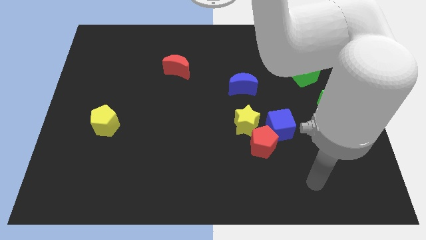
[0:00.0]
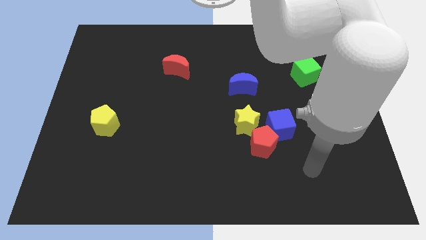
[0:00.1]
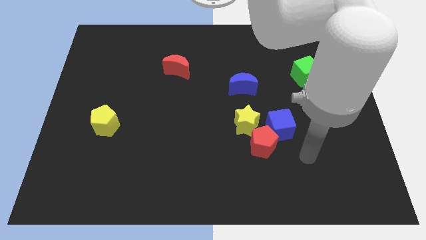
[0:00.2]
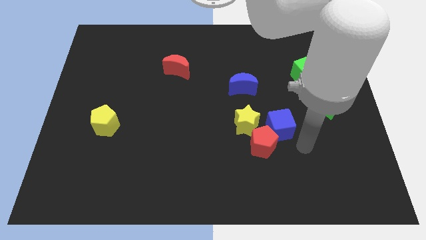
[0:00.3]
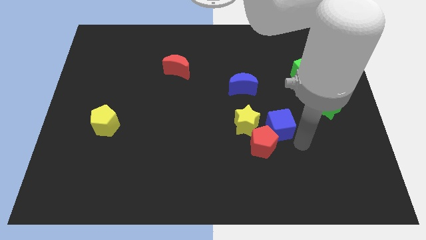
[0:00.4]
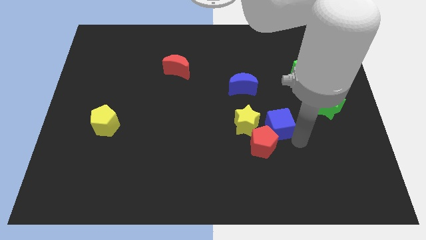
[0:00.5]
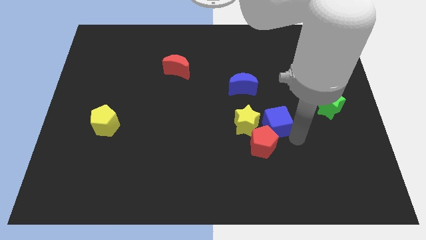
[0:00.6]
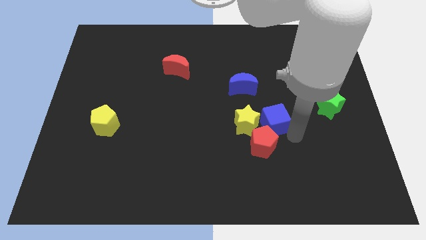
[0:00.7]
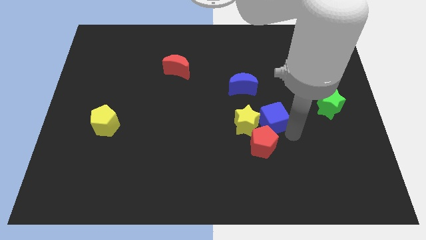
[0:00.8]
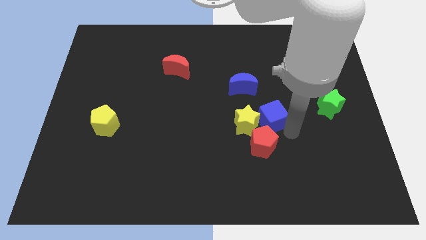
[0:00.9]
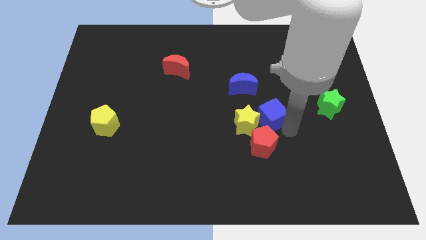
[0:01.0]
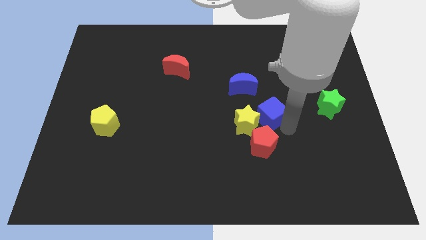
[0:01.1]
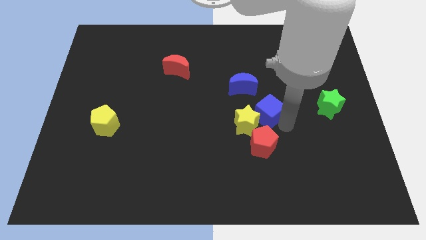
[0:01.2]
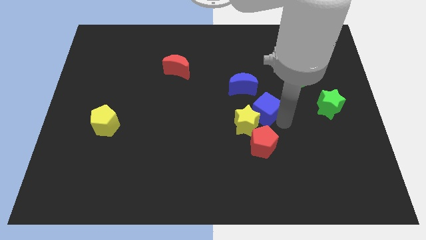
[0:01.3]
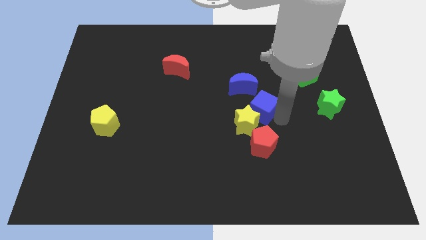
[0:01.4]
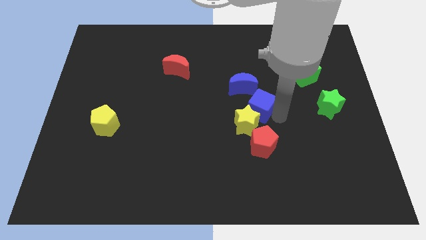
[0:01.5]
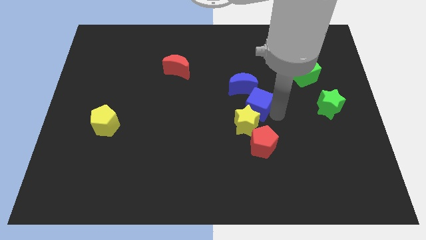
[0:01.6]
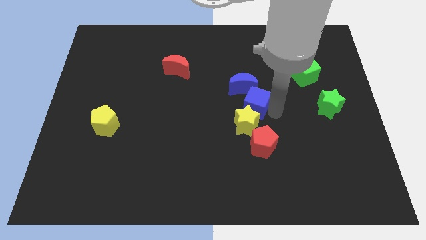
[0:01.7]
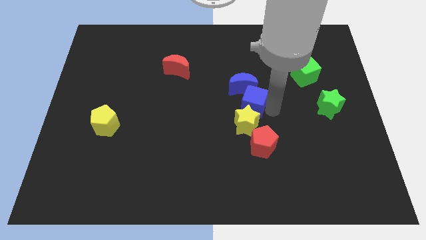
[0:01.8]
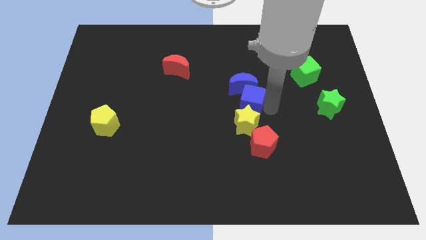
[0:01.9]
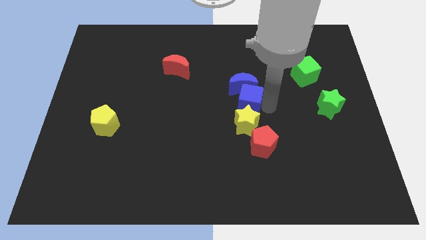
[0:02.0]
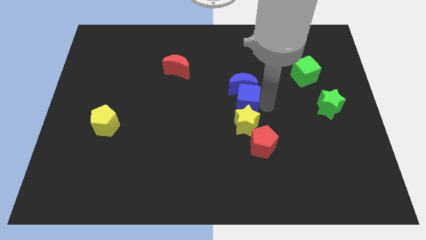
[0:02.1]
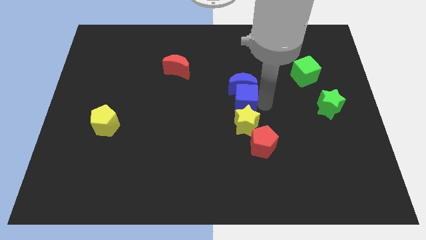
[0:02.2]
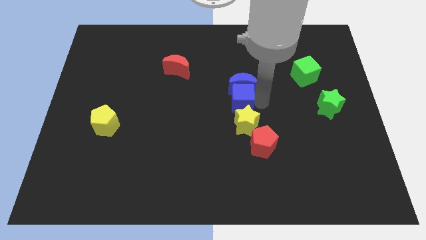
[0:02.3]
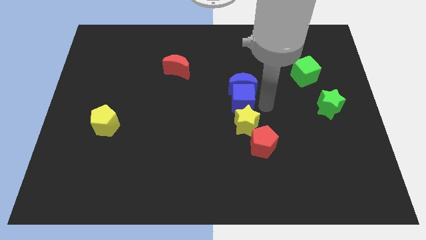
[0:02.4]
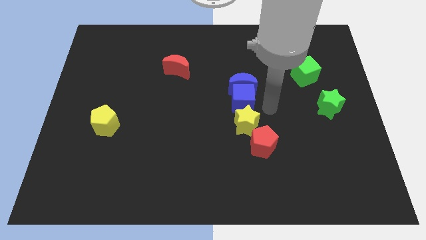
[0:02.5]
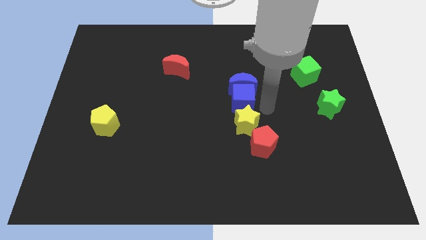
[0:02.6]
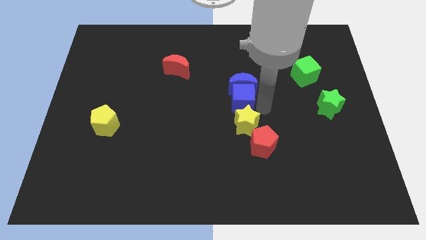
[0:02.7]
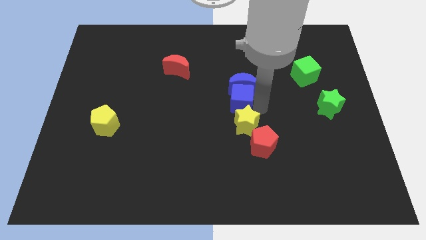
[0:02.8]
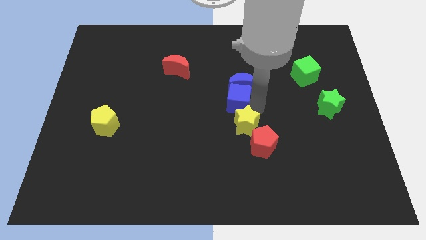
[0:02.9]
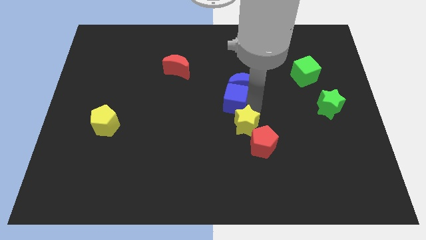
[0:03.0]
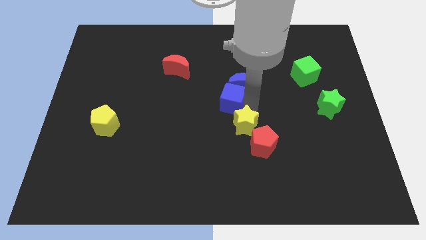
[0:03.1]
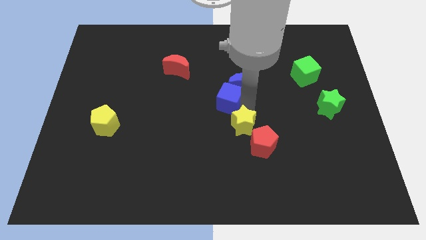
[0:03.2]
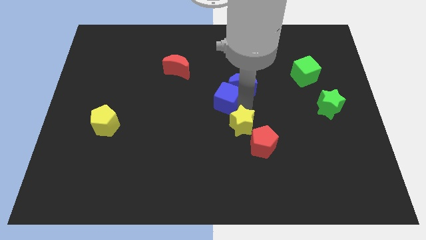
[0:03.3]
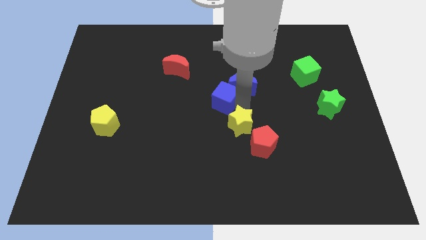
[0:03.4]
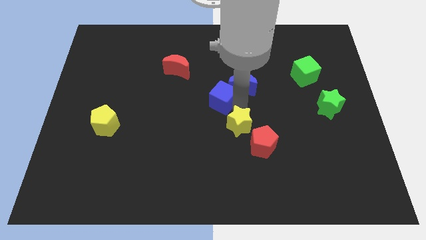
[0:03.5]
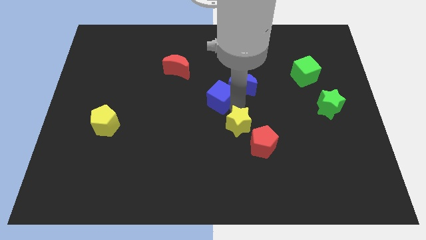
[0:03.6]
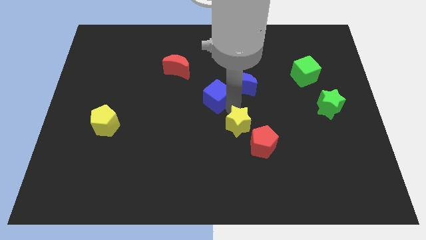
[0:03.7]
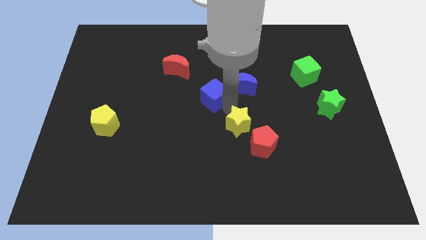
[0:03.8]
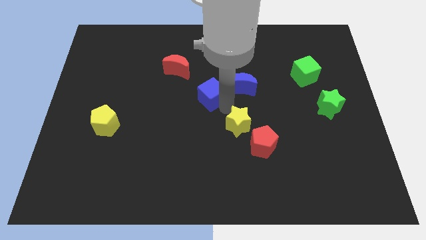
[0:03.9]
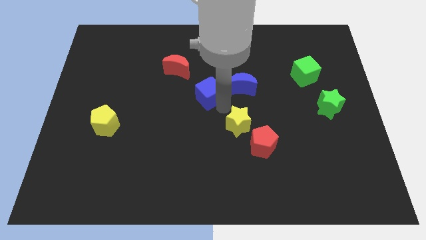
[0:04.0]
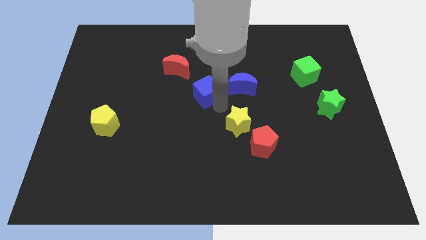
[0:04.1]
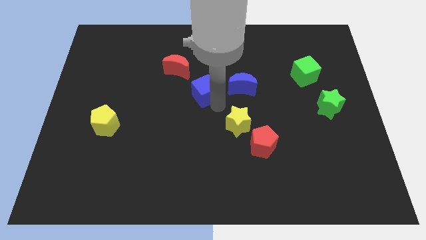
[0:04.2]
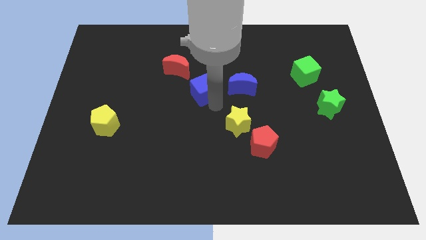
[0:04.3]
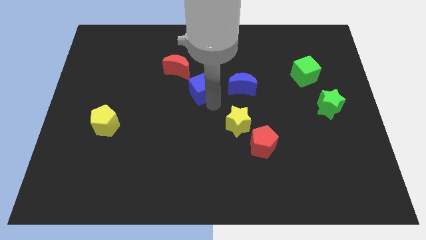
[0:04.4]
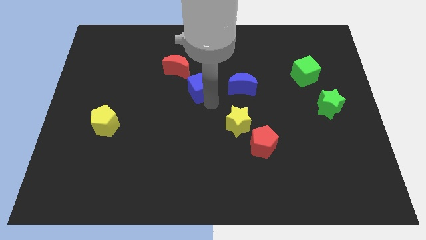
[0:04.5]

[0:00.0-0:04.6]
push the blue cube diagonally up and to the left

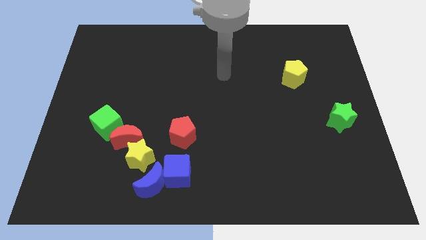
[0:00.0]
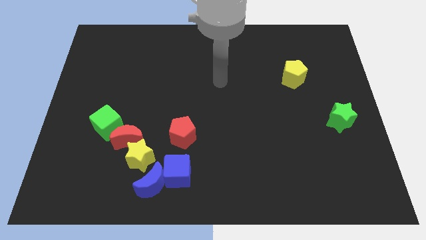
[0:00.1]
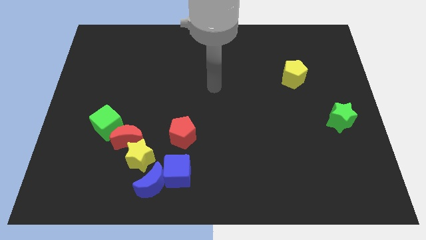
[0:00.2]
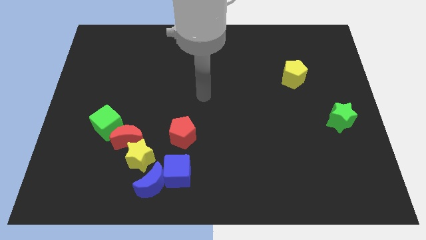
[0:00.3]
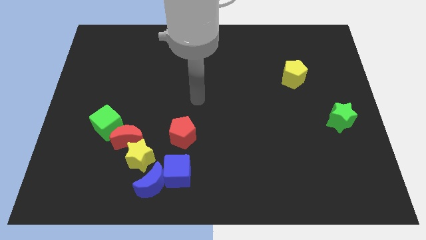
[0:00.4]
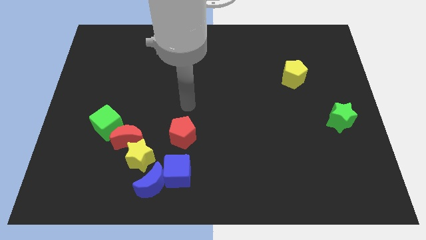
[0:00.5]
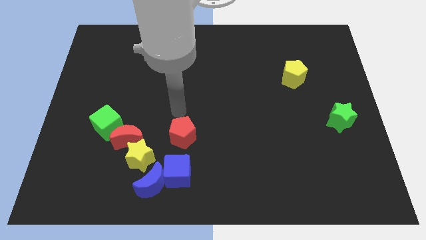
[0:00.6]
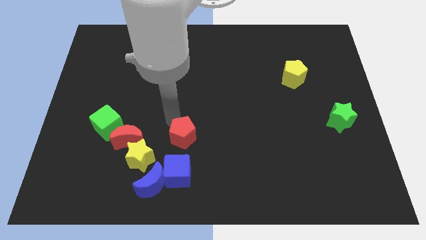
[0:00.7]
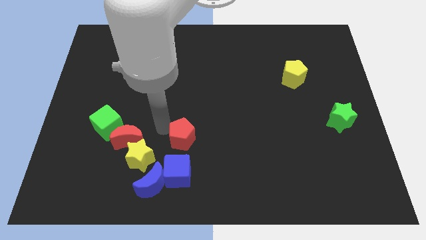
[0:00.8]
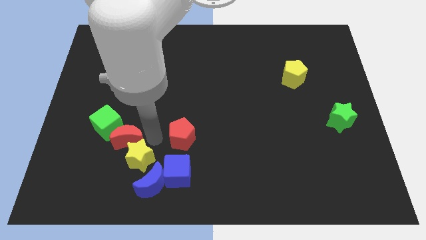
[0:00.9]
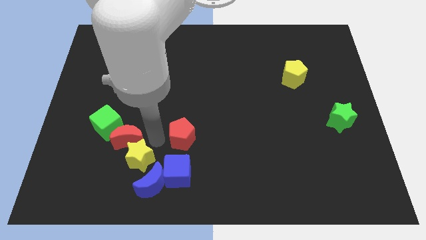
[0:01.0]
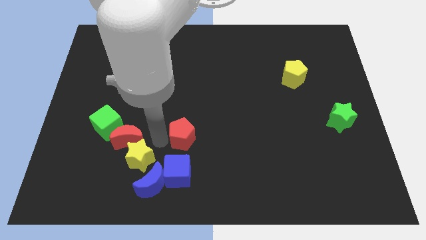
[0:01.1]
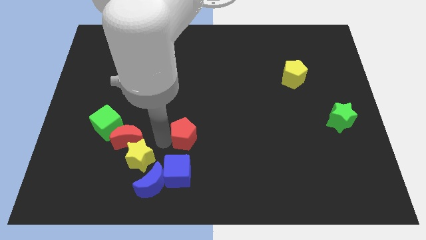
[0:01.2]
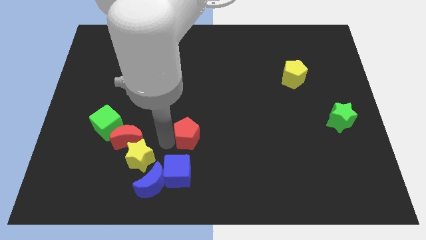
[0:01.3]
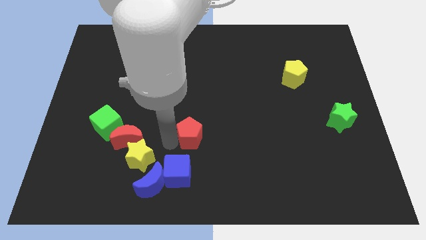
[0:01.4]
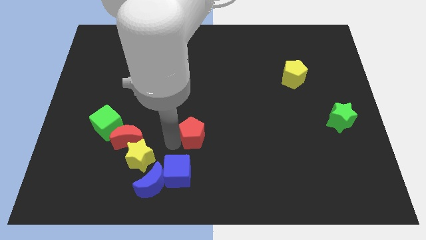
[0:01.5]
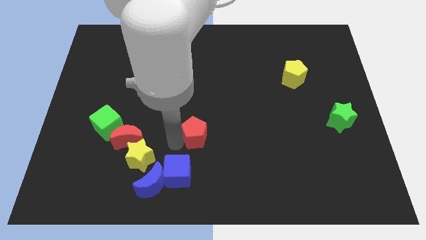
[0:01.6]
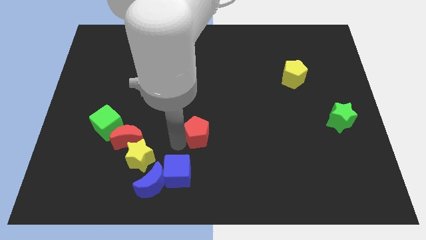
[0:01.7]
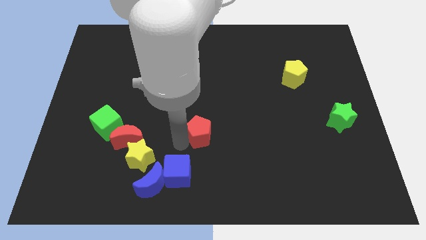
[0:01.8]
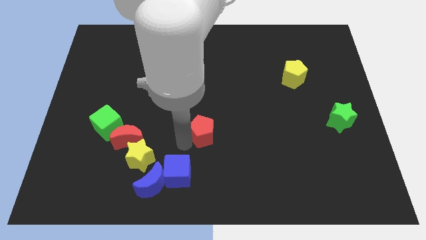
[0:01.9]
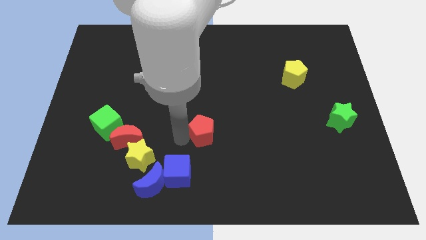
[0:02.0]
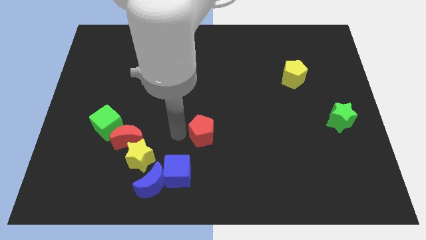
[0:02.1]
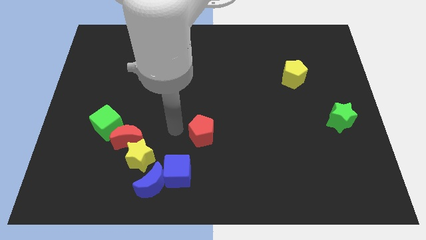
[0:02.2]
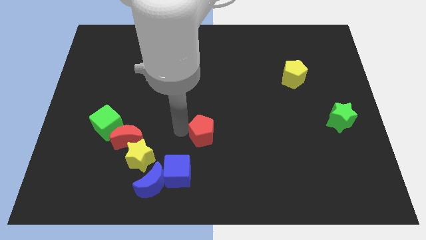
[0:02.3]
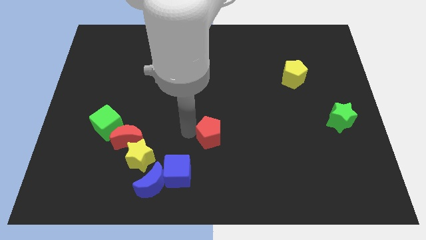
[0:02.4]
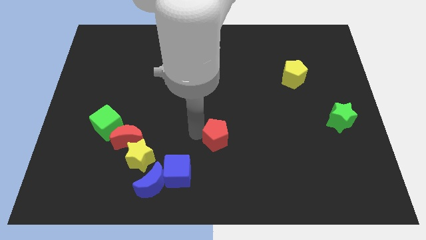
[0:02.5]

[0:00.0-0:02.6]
move the red pentagon right slightly

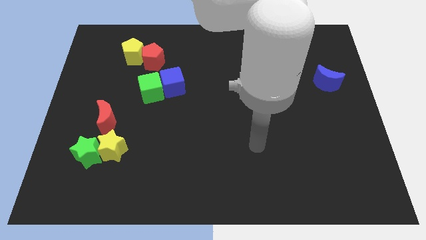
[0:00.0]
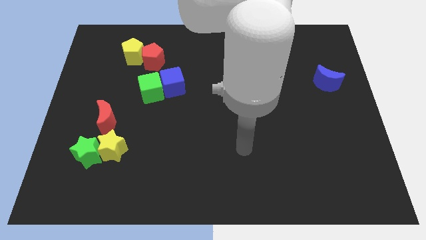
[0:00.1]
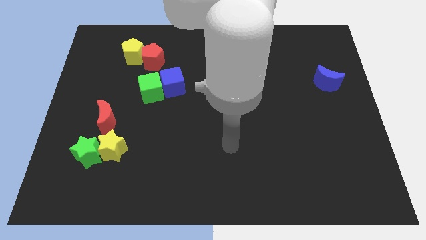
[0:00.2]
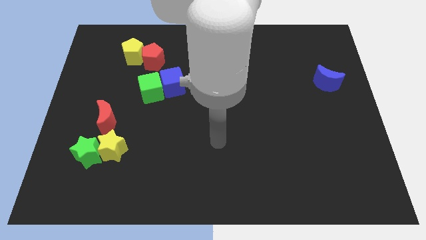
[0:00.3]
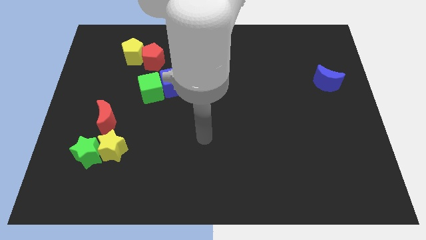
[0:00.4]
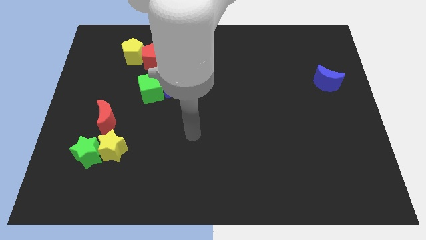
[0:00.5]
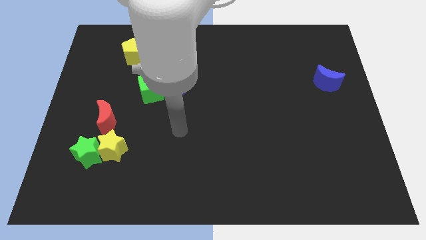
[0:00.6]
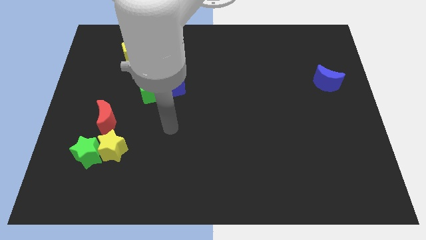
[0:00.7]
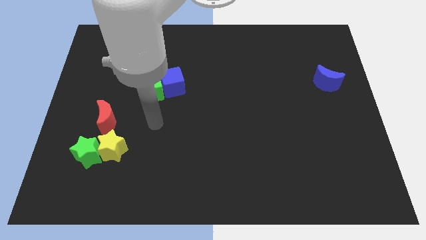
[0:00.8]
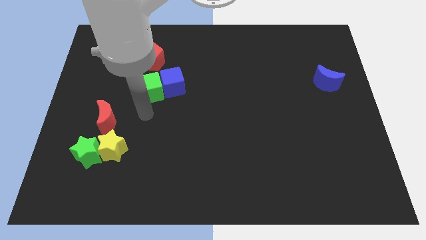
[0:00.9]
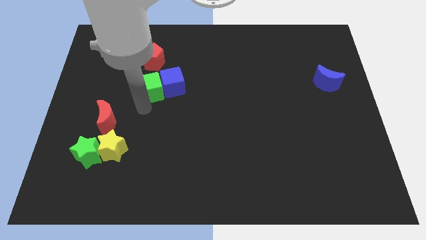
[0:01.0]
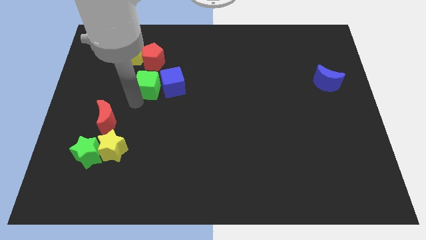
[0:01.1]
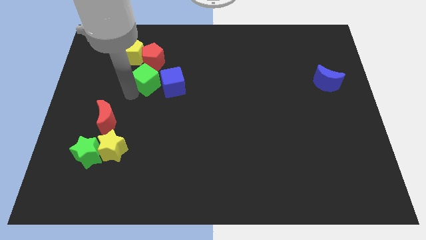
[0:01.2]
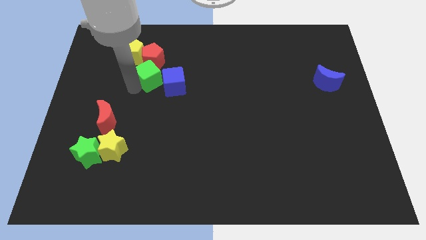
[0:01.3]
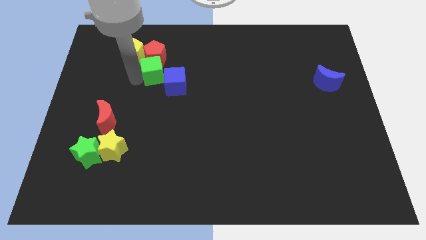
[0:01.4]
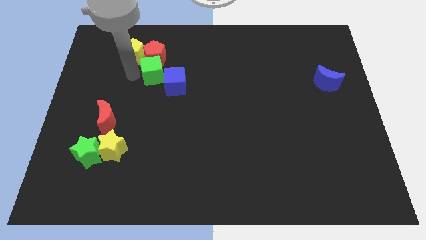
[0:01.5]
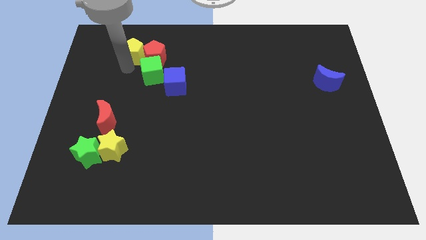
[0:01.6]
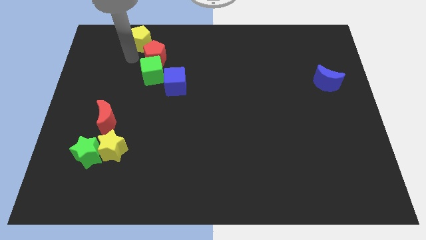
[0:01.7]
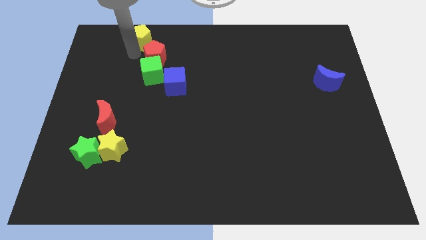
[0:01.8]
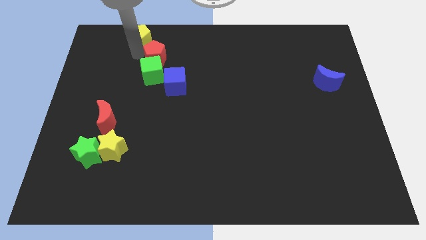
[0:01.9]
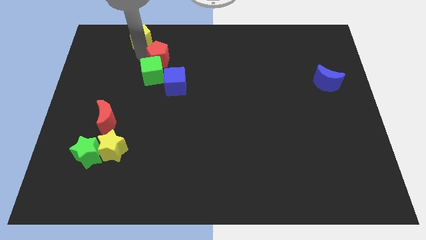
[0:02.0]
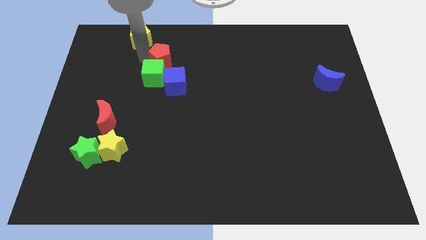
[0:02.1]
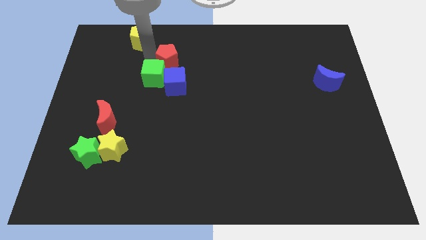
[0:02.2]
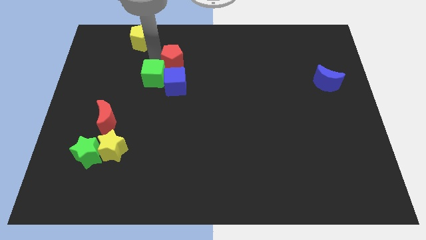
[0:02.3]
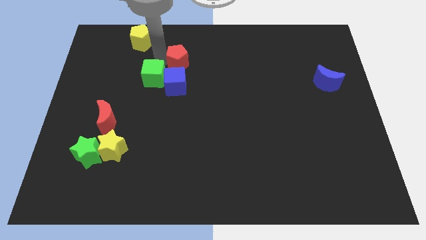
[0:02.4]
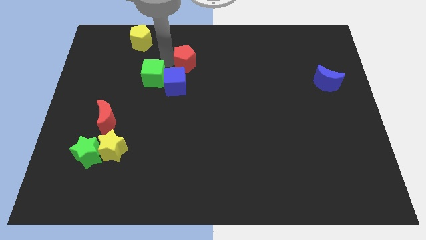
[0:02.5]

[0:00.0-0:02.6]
slide the red pentagon right a bit
